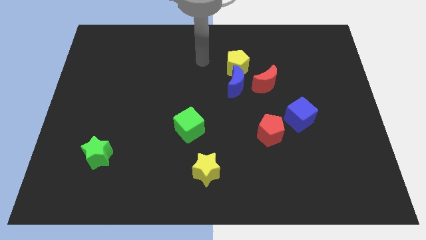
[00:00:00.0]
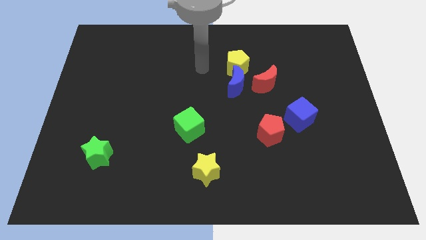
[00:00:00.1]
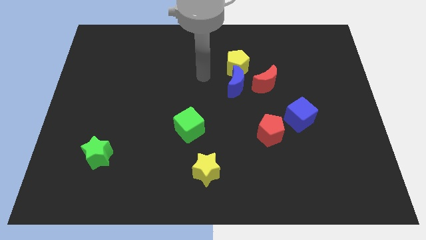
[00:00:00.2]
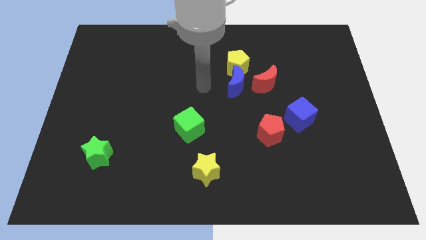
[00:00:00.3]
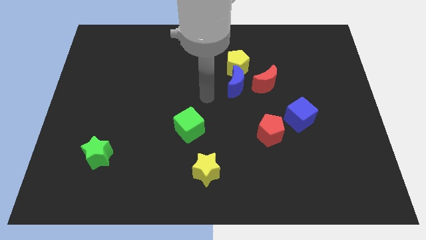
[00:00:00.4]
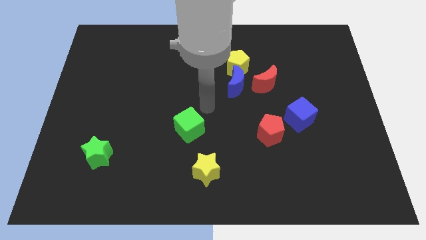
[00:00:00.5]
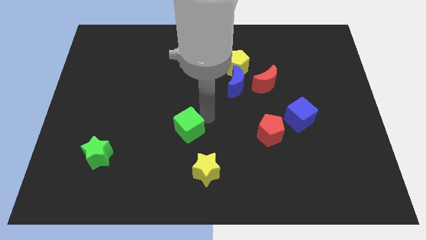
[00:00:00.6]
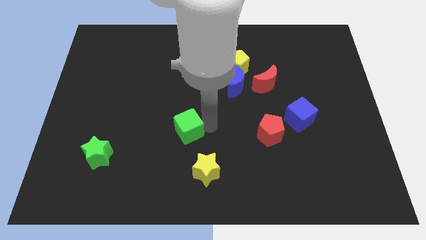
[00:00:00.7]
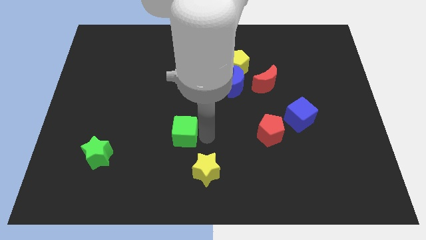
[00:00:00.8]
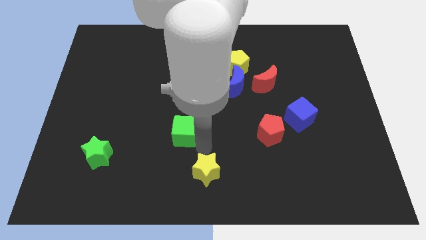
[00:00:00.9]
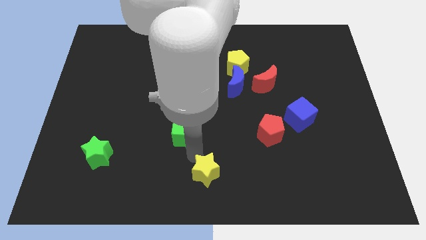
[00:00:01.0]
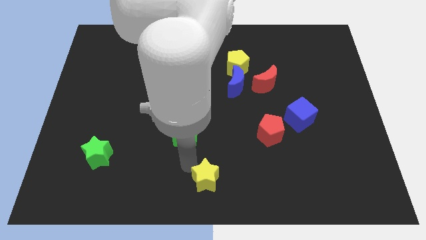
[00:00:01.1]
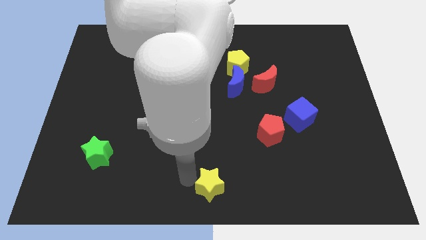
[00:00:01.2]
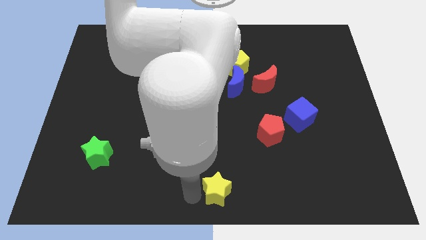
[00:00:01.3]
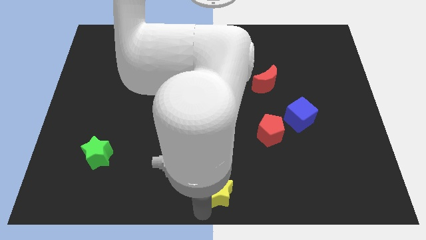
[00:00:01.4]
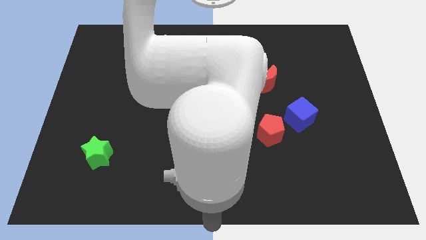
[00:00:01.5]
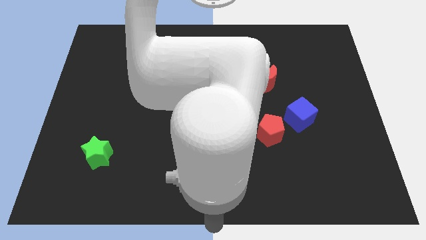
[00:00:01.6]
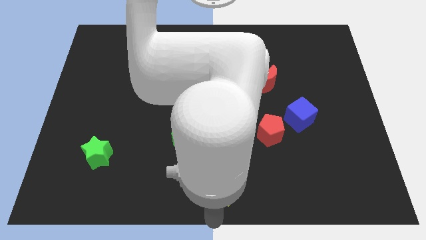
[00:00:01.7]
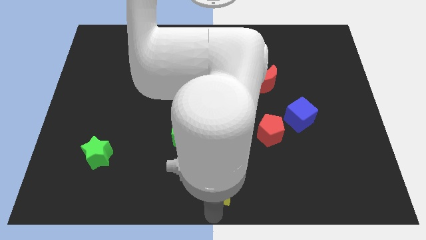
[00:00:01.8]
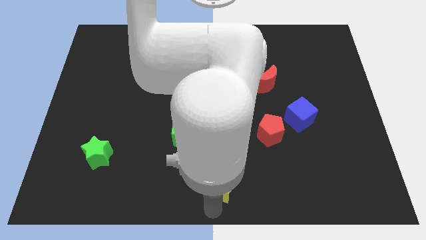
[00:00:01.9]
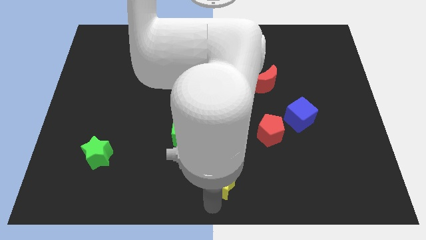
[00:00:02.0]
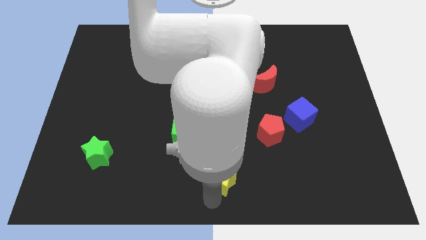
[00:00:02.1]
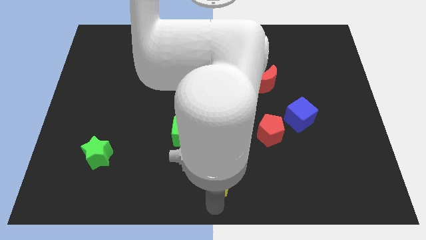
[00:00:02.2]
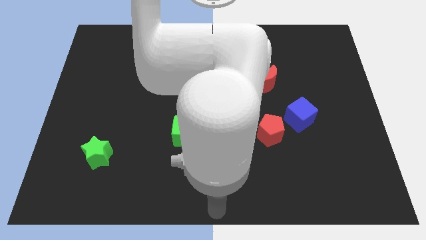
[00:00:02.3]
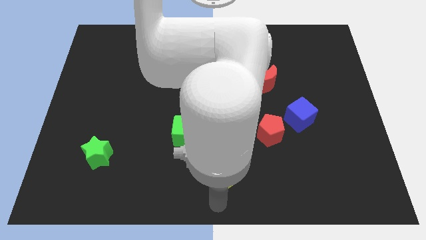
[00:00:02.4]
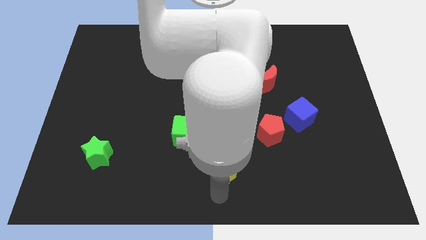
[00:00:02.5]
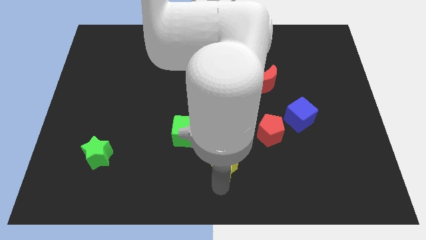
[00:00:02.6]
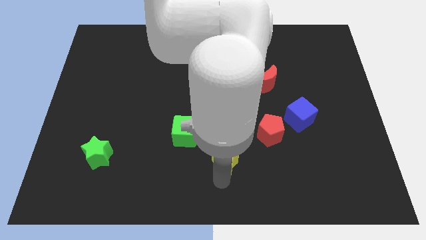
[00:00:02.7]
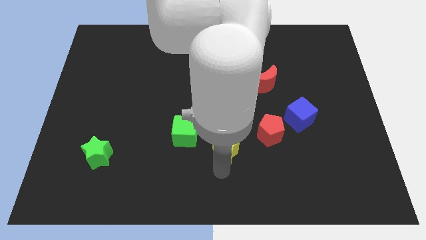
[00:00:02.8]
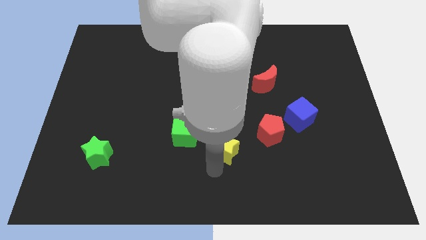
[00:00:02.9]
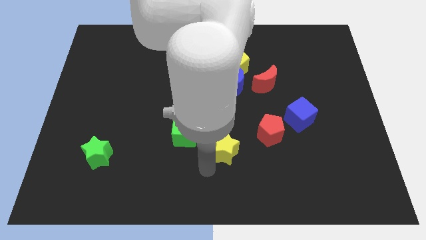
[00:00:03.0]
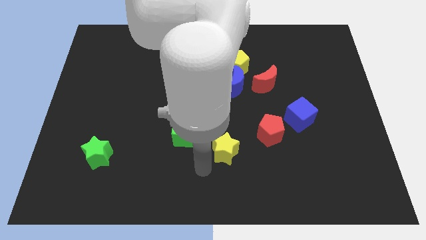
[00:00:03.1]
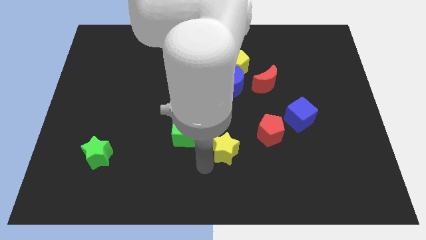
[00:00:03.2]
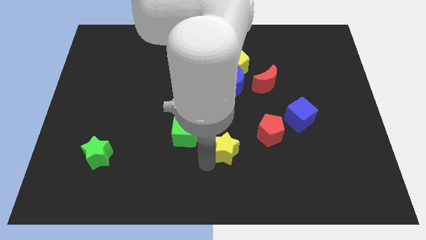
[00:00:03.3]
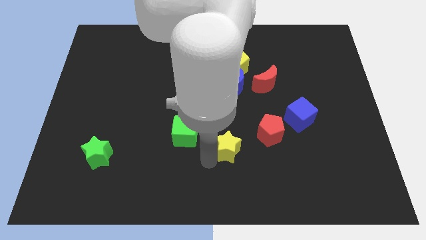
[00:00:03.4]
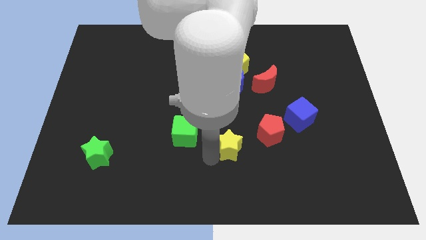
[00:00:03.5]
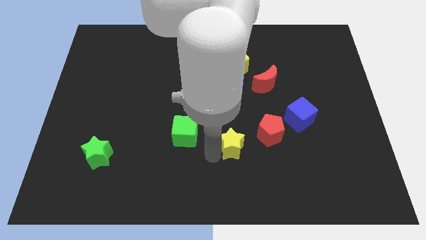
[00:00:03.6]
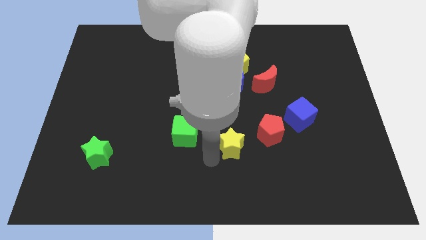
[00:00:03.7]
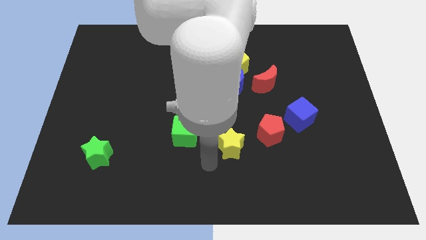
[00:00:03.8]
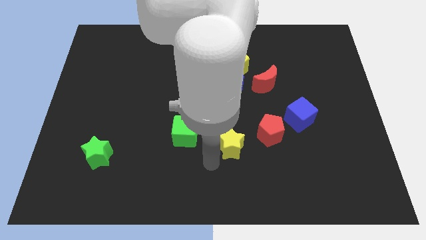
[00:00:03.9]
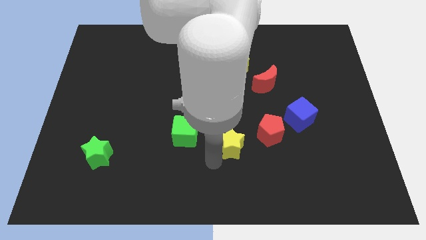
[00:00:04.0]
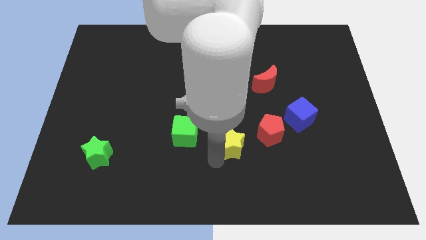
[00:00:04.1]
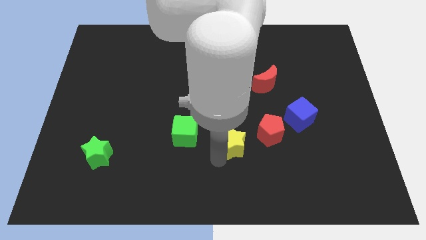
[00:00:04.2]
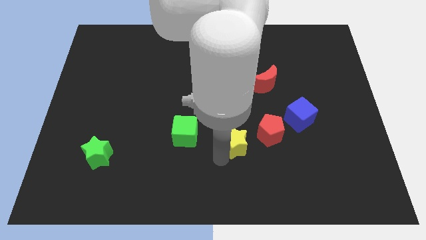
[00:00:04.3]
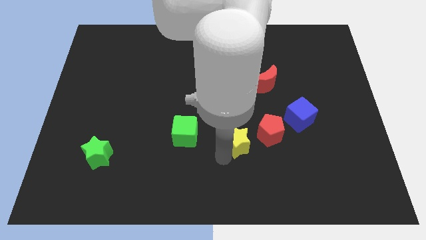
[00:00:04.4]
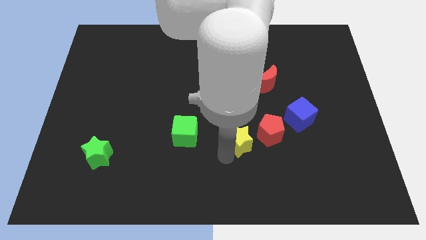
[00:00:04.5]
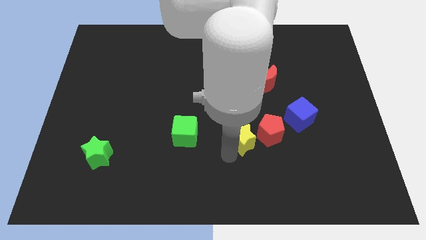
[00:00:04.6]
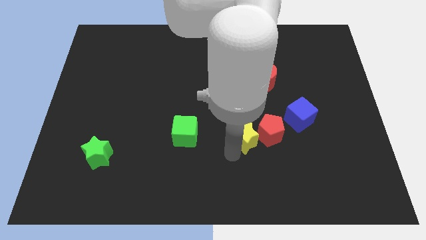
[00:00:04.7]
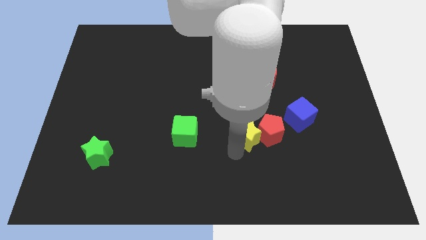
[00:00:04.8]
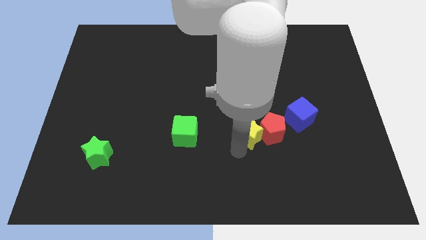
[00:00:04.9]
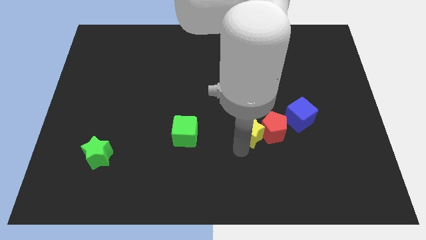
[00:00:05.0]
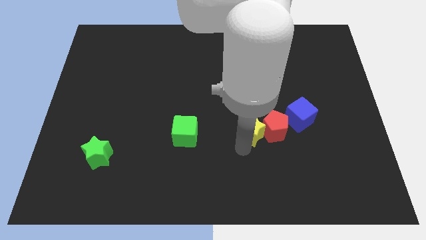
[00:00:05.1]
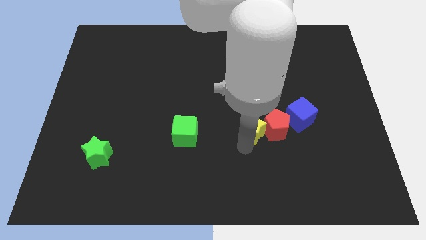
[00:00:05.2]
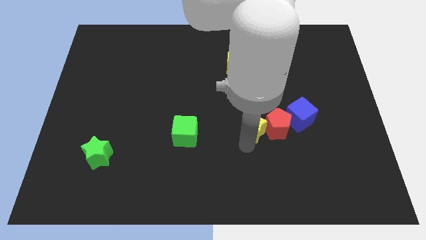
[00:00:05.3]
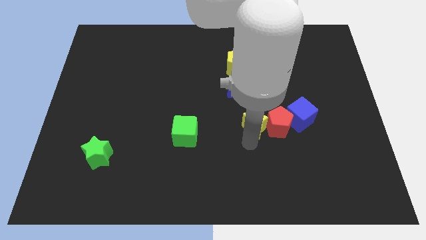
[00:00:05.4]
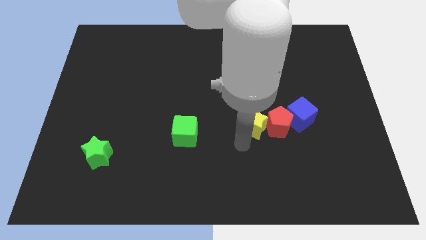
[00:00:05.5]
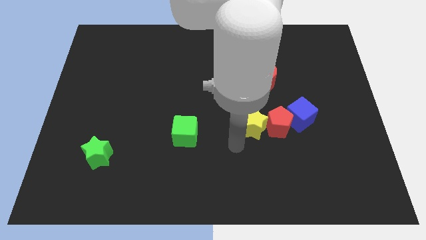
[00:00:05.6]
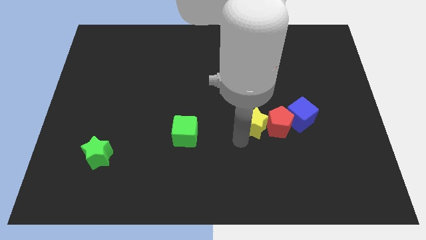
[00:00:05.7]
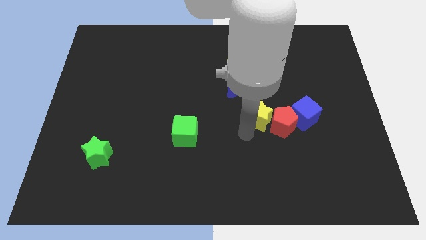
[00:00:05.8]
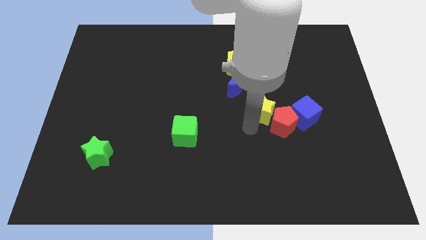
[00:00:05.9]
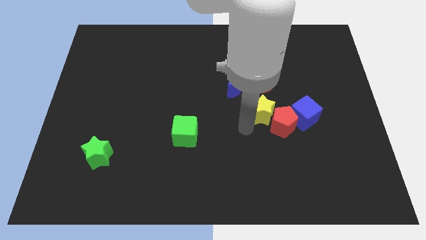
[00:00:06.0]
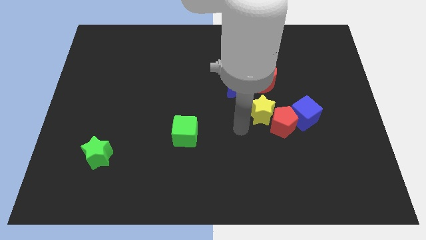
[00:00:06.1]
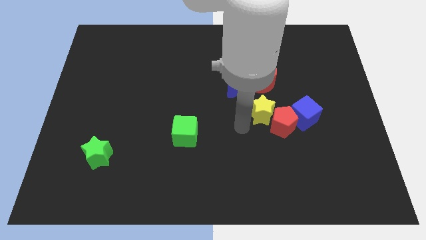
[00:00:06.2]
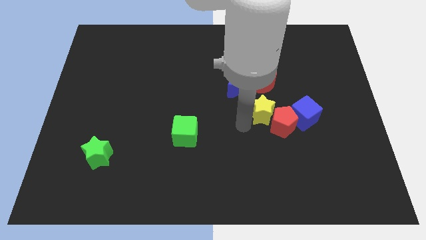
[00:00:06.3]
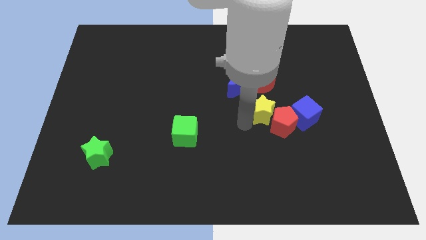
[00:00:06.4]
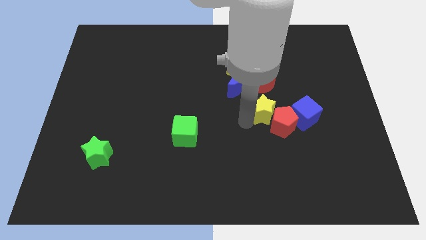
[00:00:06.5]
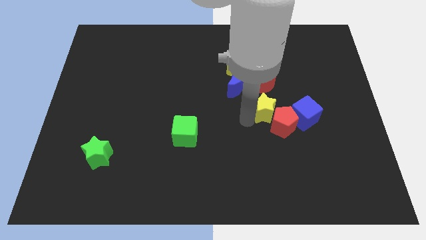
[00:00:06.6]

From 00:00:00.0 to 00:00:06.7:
push the yellow star diagonally upwards and to the right

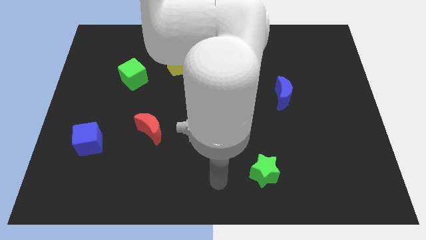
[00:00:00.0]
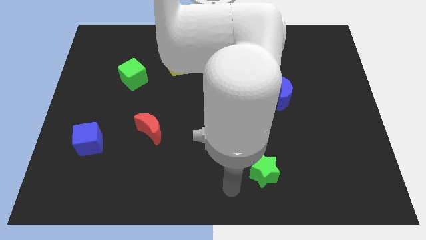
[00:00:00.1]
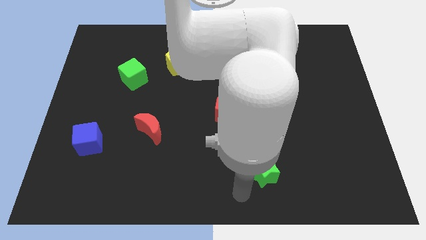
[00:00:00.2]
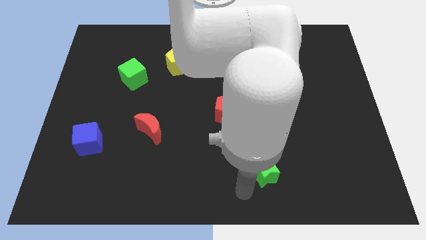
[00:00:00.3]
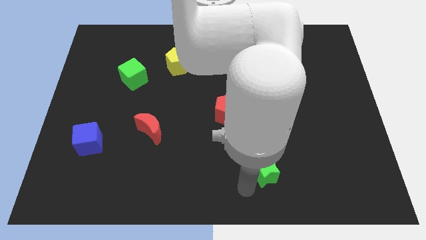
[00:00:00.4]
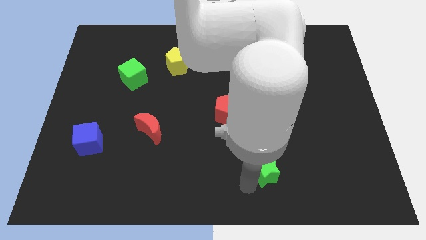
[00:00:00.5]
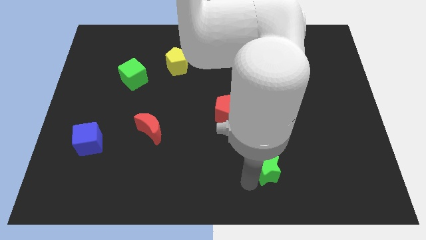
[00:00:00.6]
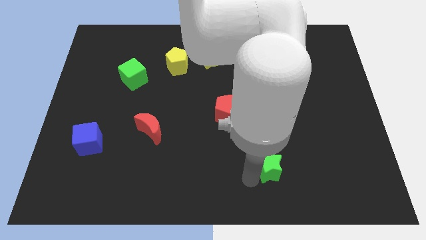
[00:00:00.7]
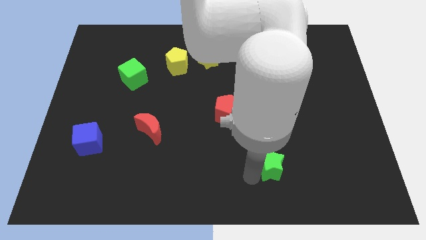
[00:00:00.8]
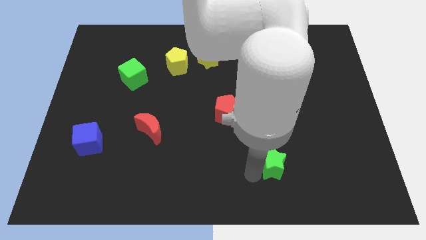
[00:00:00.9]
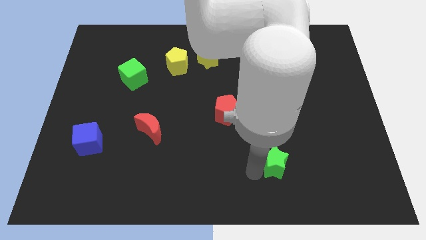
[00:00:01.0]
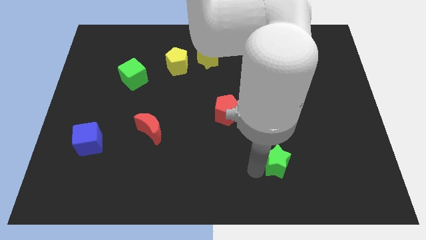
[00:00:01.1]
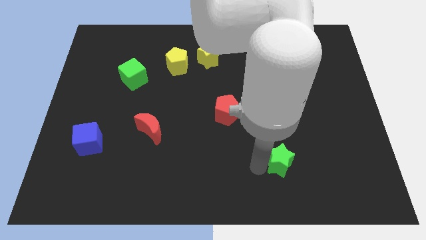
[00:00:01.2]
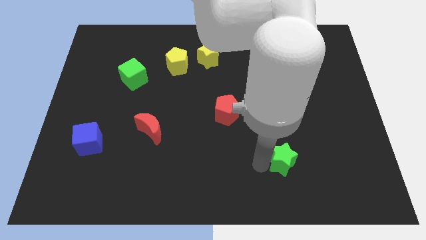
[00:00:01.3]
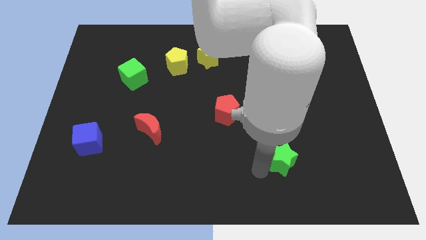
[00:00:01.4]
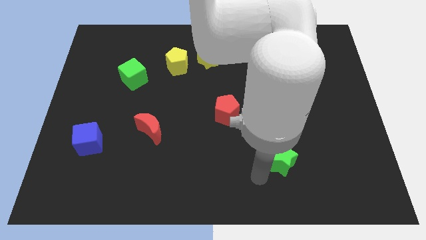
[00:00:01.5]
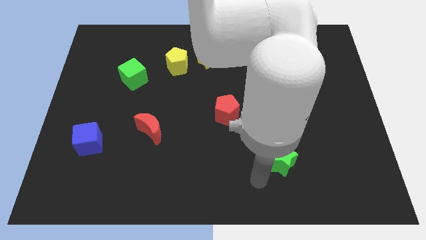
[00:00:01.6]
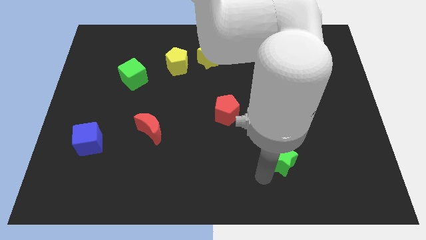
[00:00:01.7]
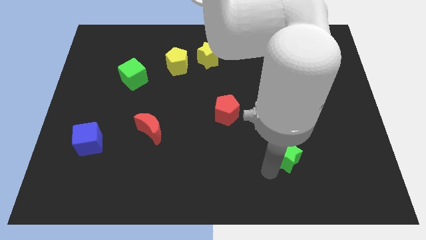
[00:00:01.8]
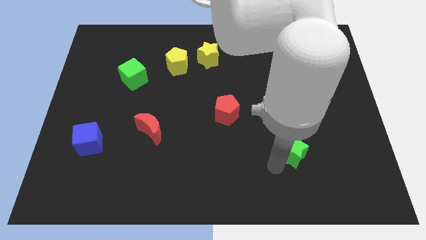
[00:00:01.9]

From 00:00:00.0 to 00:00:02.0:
move the green star a little up and then to the right
